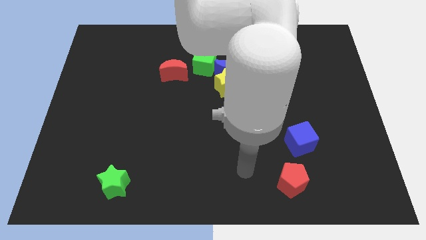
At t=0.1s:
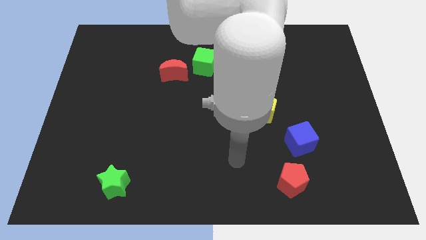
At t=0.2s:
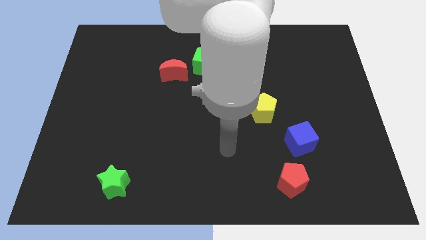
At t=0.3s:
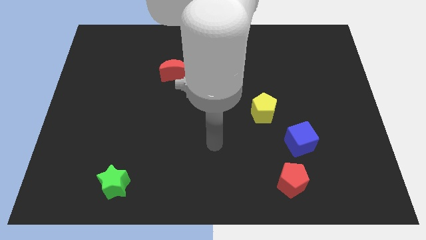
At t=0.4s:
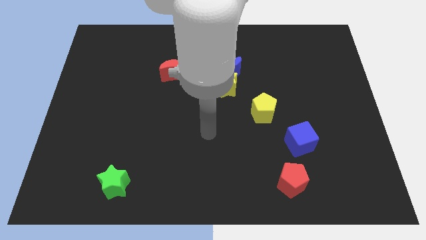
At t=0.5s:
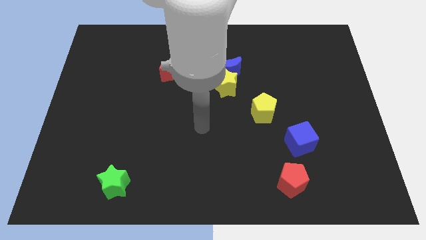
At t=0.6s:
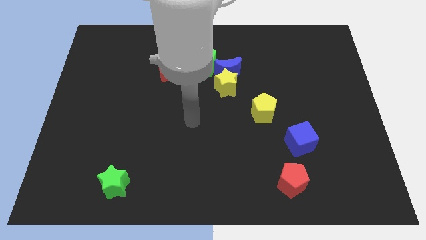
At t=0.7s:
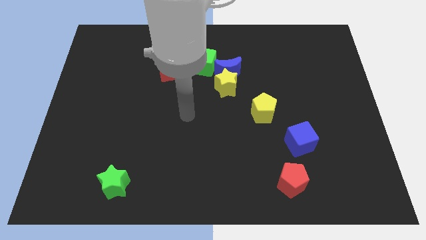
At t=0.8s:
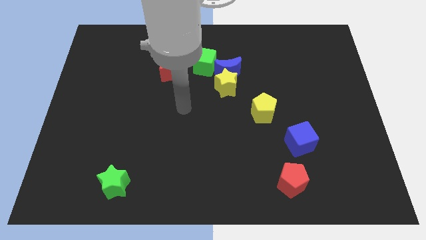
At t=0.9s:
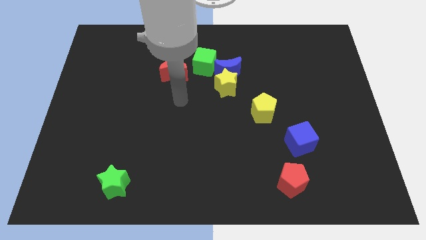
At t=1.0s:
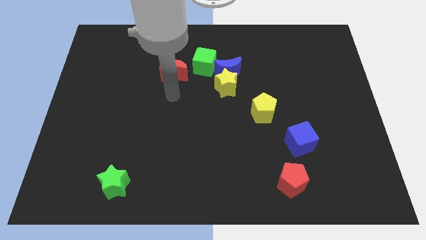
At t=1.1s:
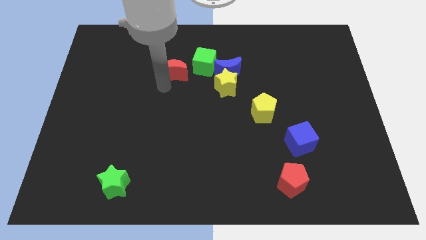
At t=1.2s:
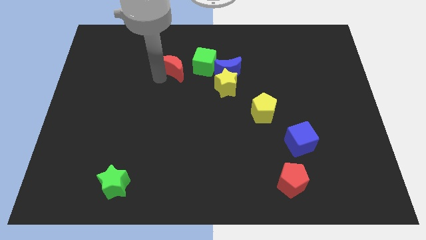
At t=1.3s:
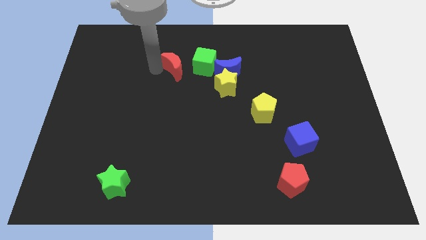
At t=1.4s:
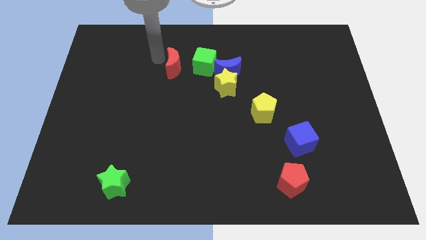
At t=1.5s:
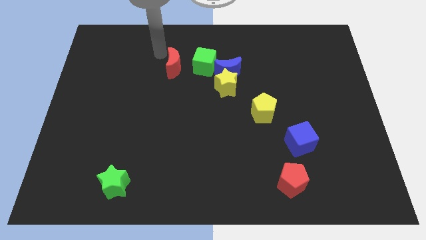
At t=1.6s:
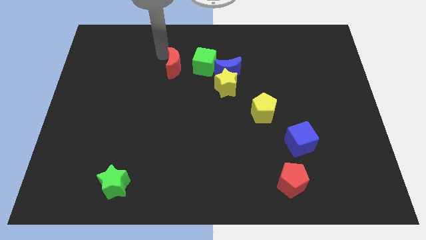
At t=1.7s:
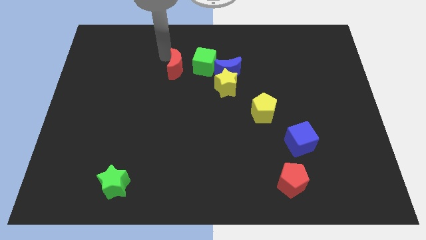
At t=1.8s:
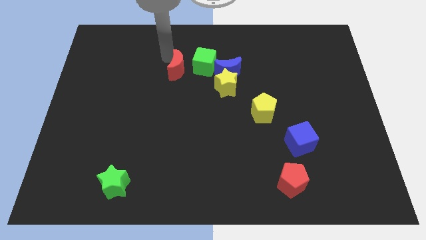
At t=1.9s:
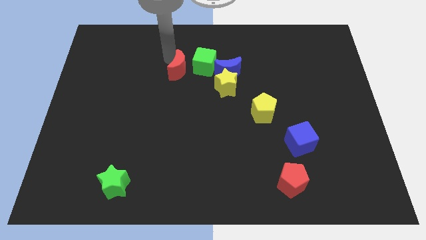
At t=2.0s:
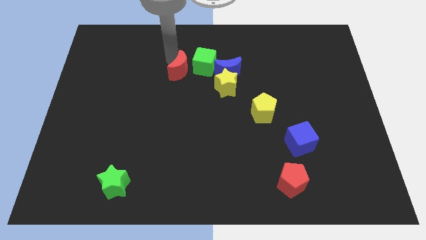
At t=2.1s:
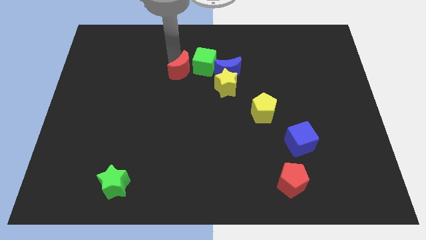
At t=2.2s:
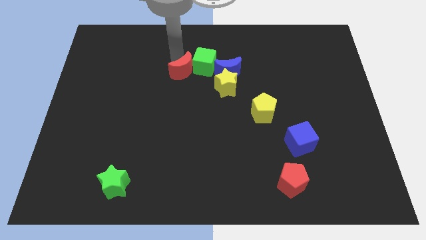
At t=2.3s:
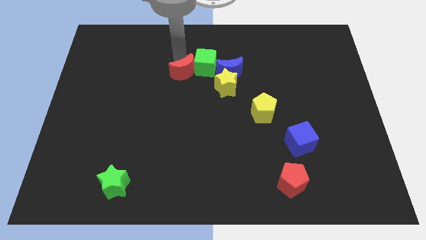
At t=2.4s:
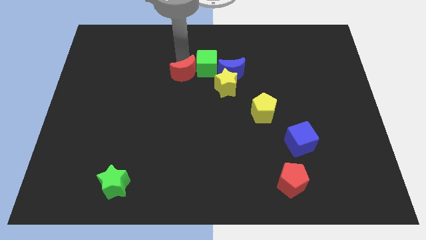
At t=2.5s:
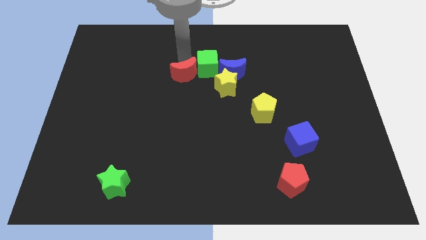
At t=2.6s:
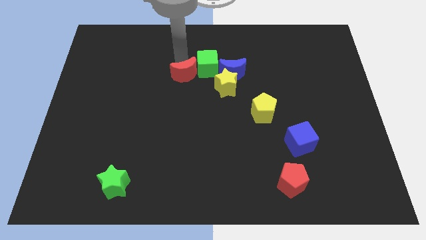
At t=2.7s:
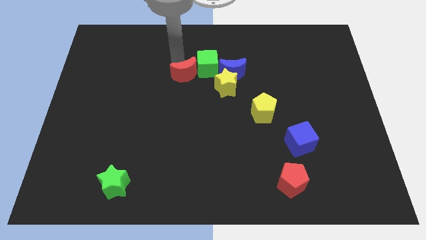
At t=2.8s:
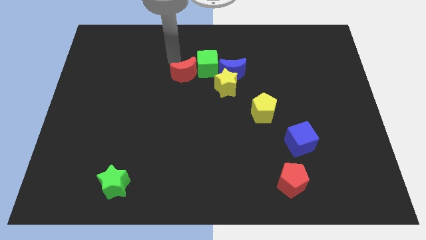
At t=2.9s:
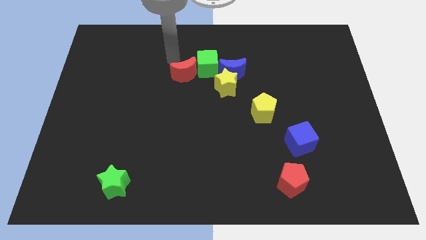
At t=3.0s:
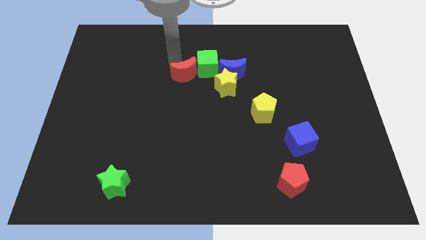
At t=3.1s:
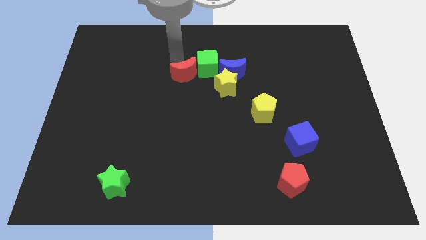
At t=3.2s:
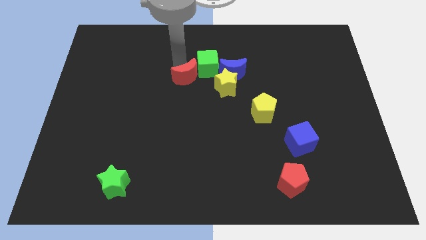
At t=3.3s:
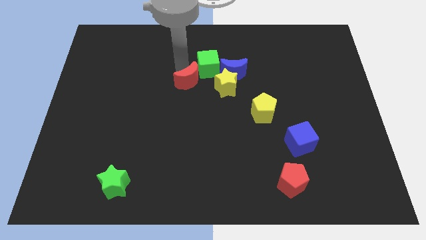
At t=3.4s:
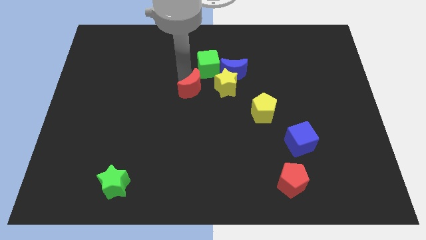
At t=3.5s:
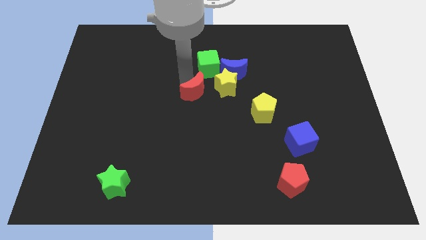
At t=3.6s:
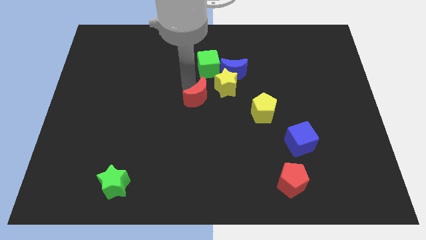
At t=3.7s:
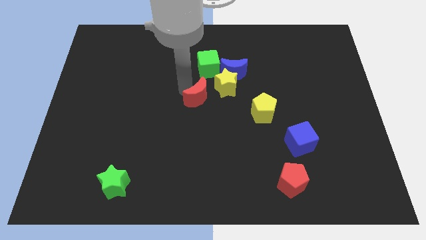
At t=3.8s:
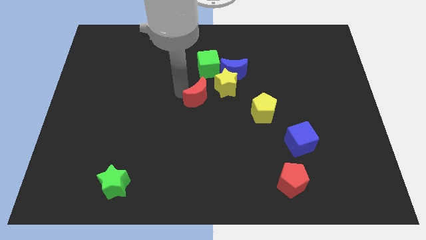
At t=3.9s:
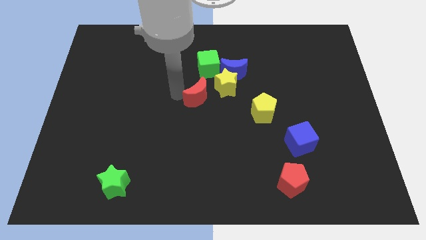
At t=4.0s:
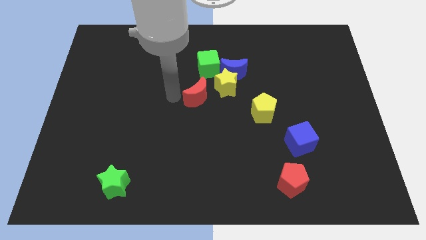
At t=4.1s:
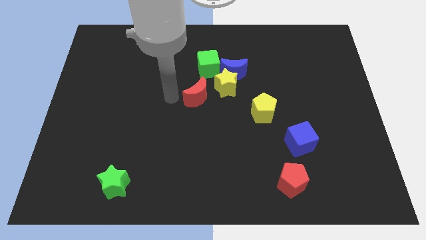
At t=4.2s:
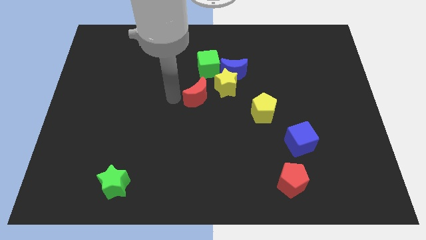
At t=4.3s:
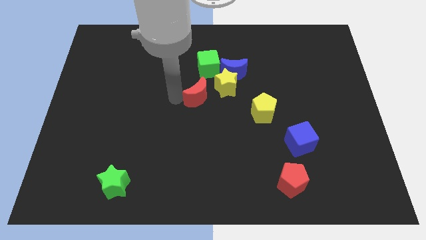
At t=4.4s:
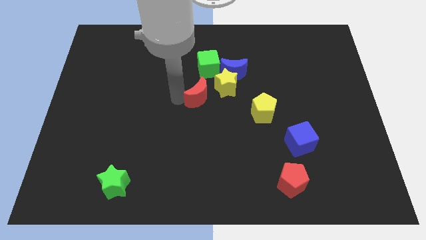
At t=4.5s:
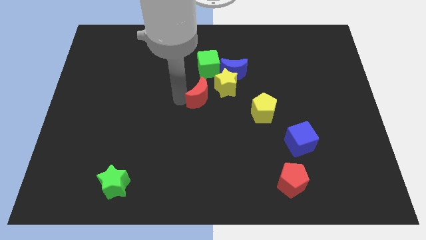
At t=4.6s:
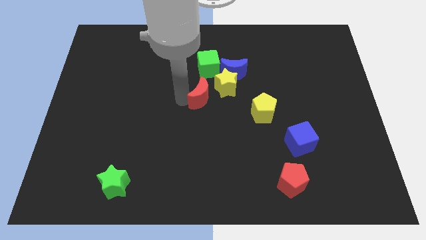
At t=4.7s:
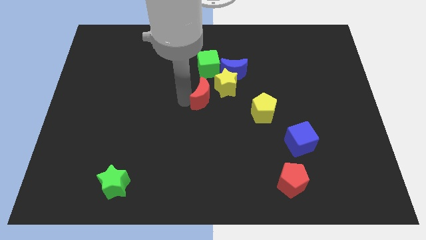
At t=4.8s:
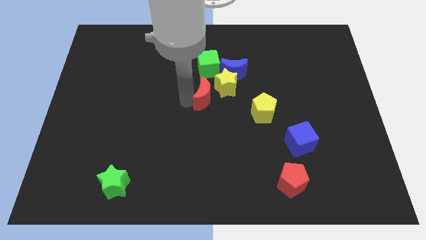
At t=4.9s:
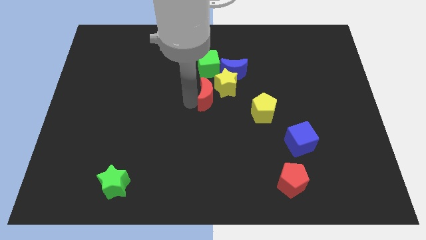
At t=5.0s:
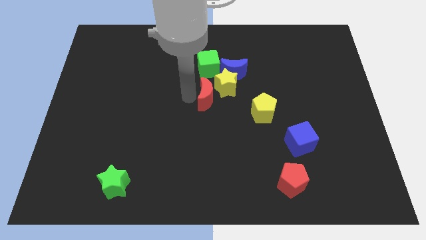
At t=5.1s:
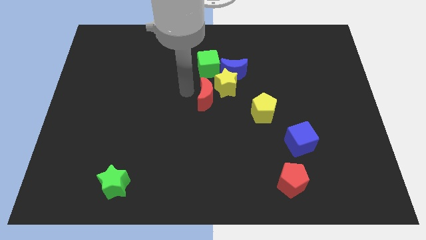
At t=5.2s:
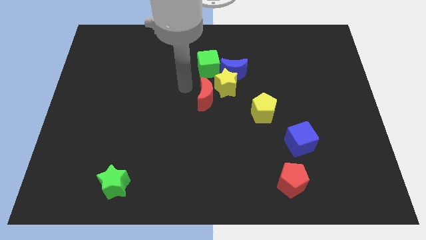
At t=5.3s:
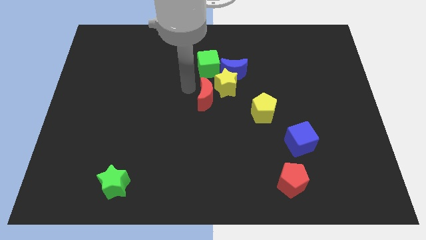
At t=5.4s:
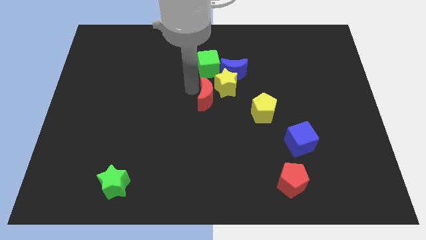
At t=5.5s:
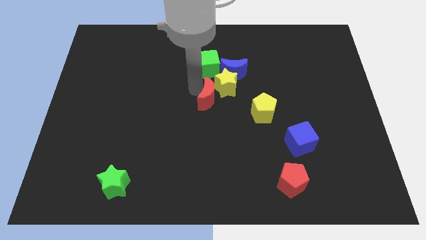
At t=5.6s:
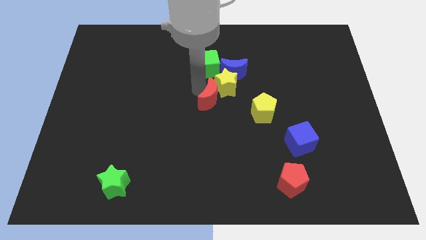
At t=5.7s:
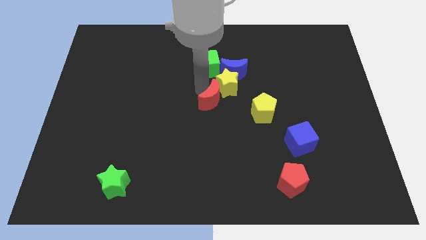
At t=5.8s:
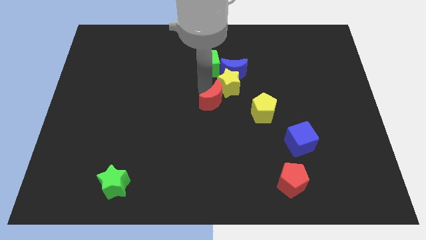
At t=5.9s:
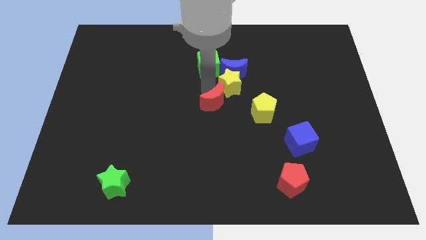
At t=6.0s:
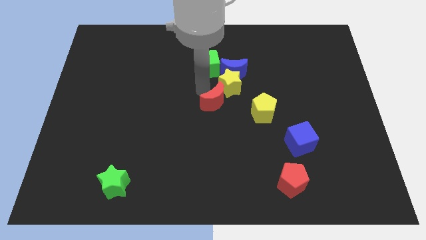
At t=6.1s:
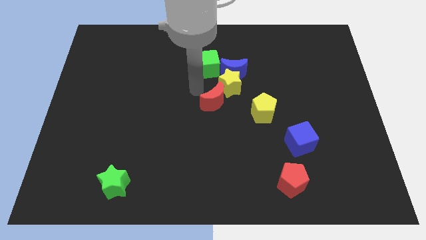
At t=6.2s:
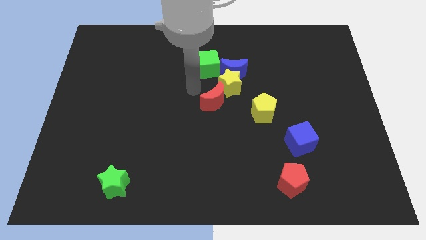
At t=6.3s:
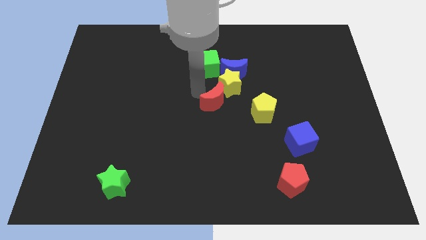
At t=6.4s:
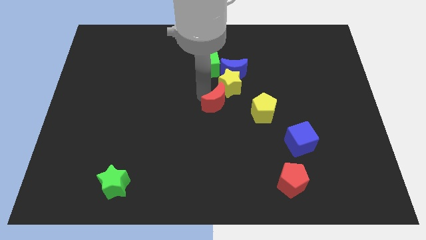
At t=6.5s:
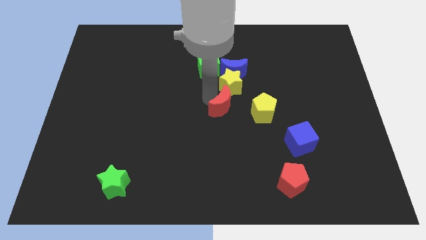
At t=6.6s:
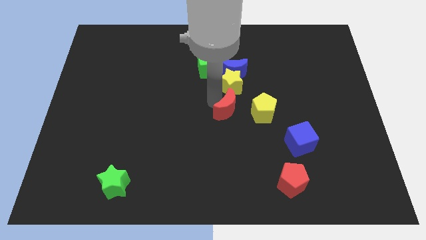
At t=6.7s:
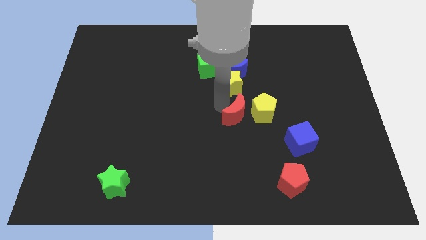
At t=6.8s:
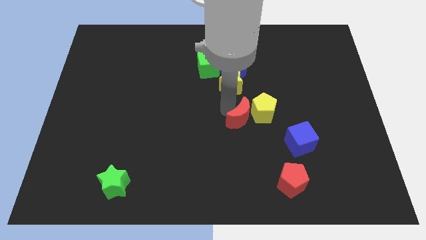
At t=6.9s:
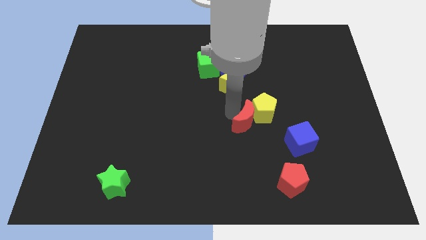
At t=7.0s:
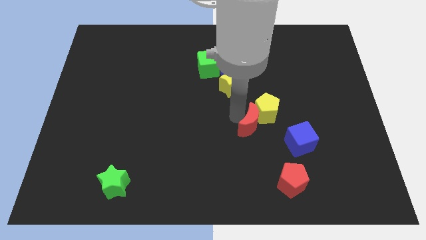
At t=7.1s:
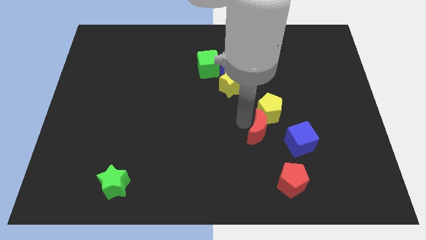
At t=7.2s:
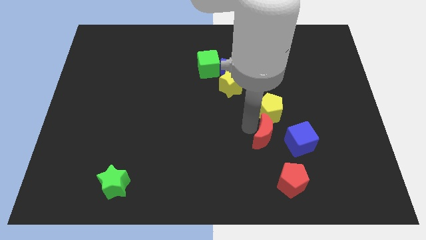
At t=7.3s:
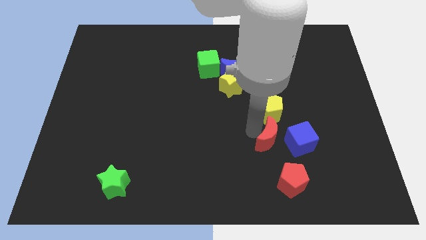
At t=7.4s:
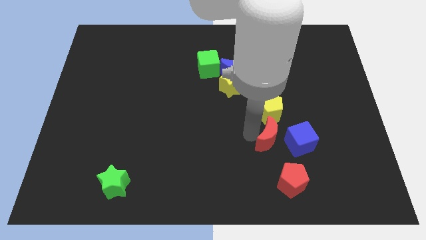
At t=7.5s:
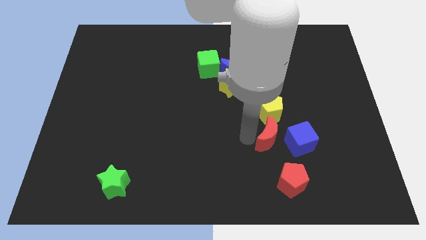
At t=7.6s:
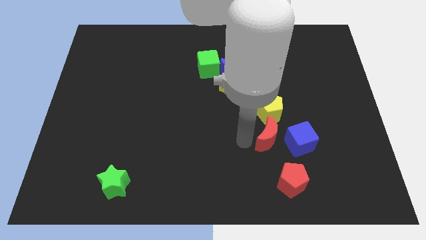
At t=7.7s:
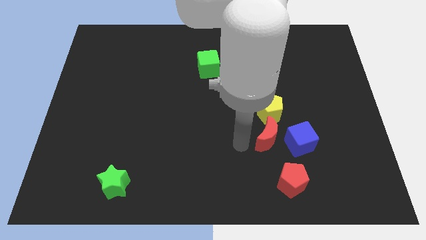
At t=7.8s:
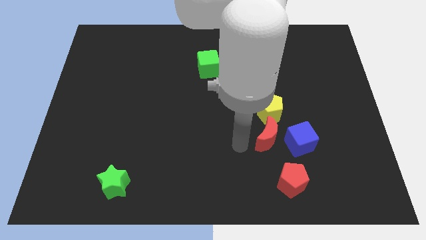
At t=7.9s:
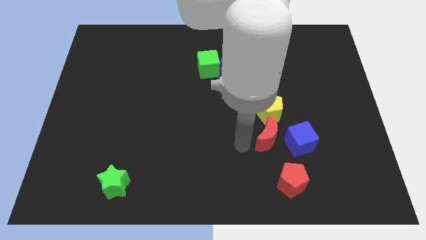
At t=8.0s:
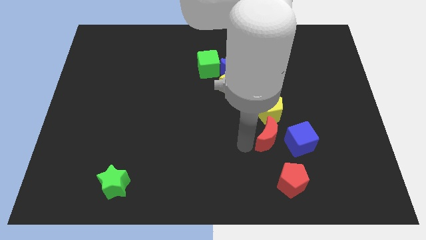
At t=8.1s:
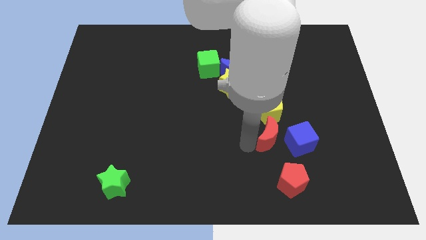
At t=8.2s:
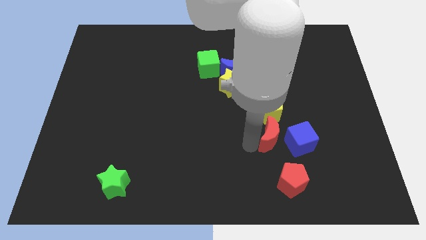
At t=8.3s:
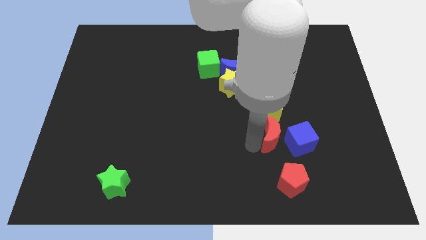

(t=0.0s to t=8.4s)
move the red moon to the blue cube
